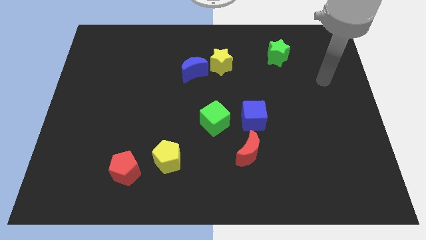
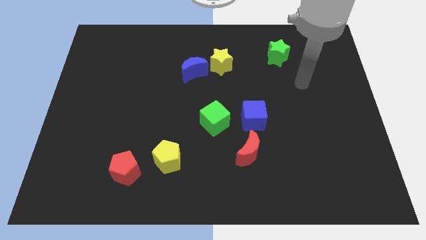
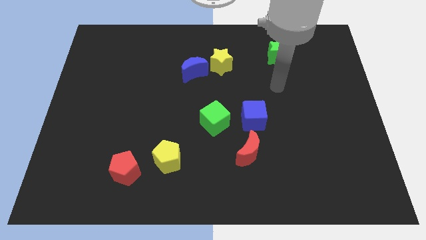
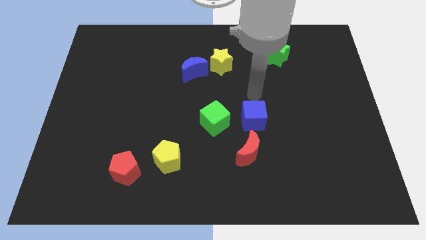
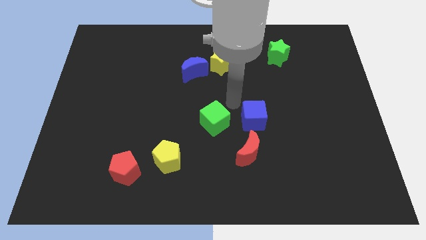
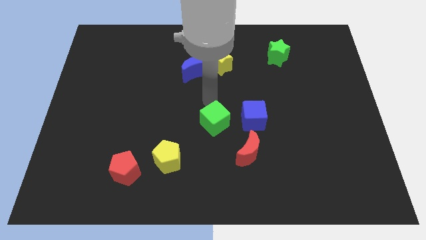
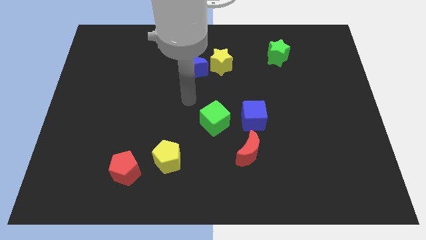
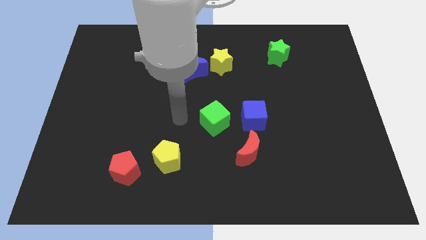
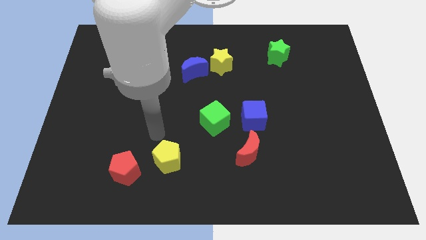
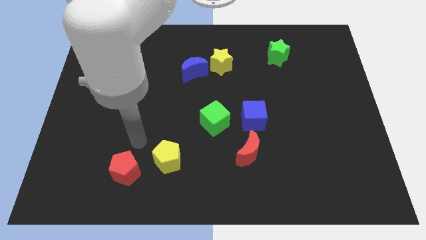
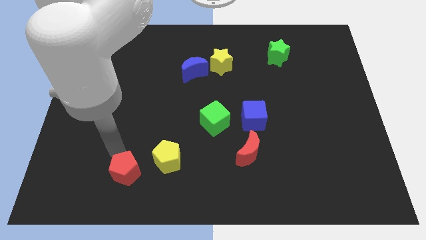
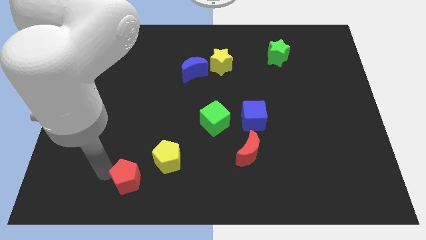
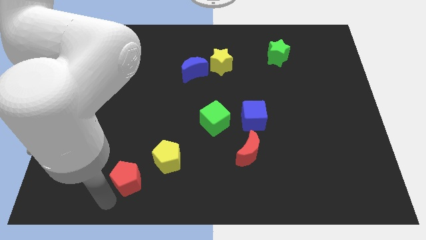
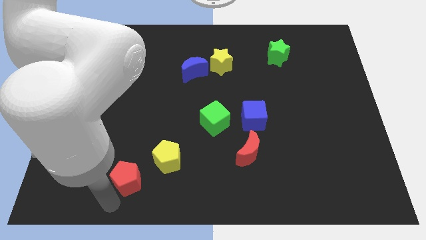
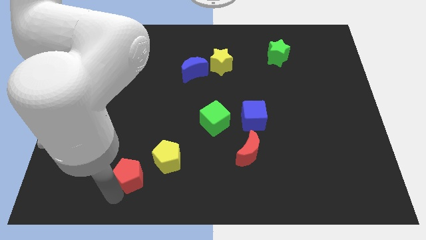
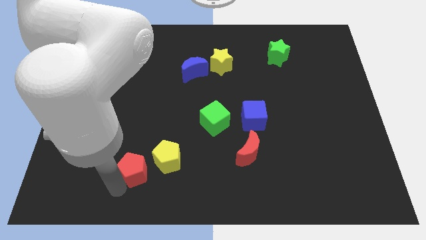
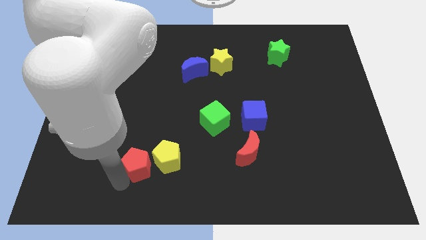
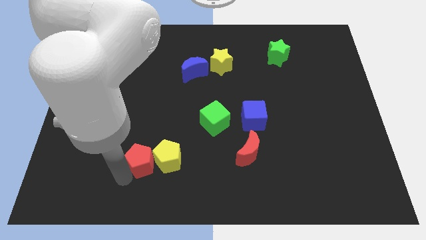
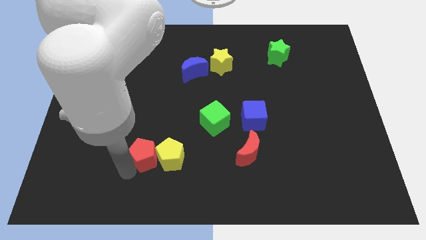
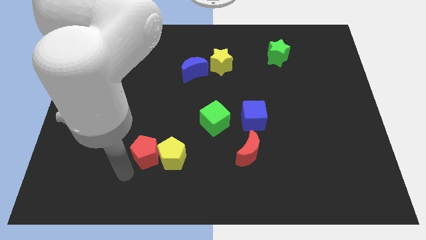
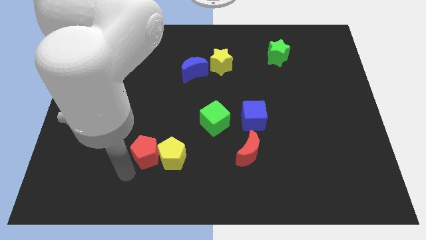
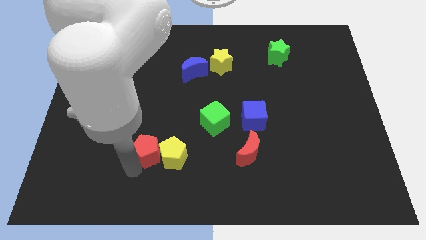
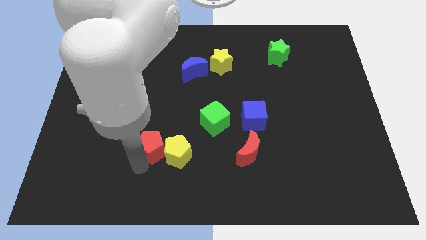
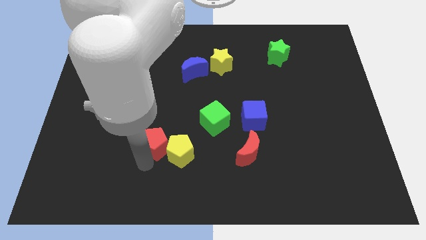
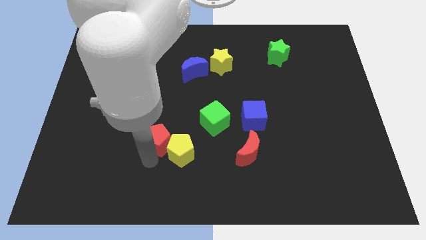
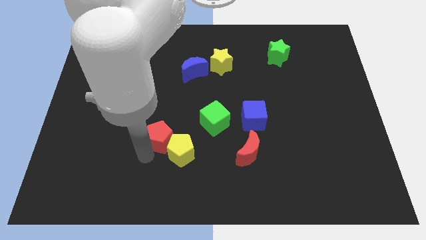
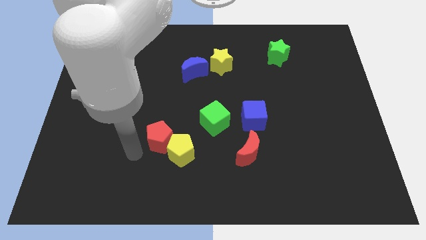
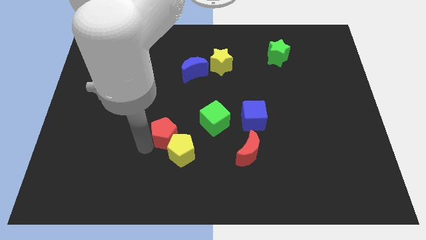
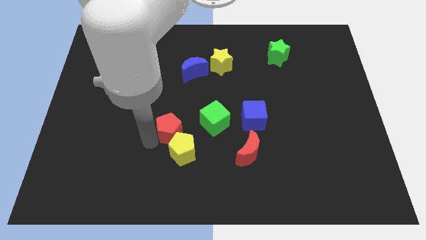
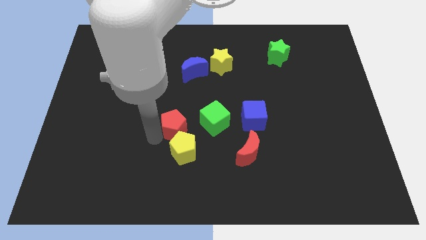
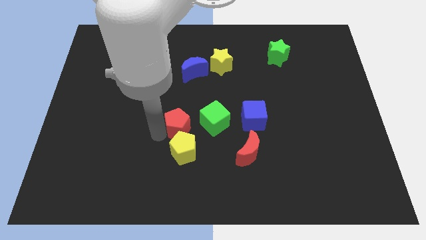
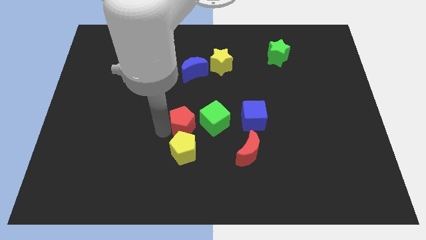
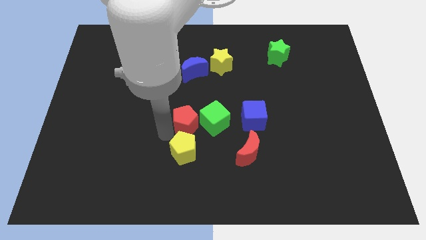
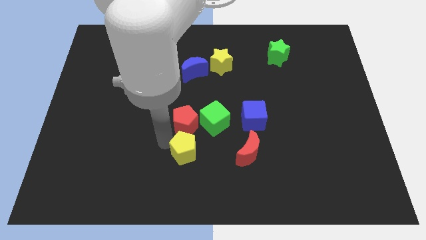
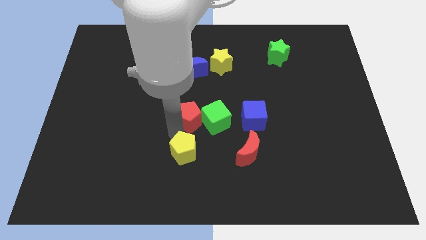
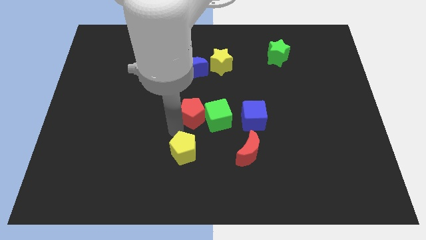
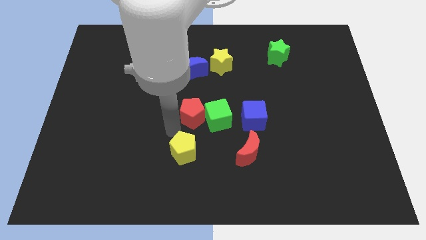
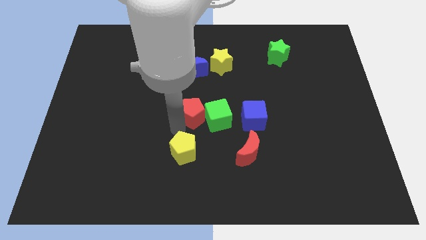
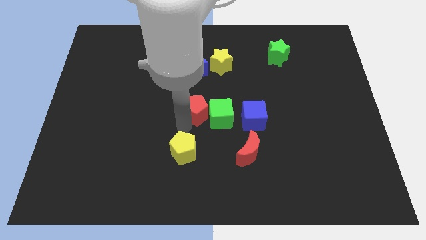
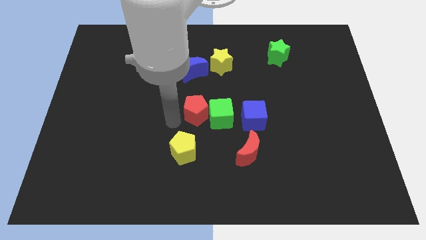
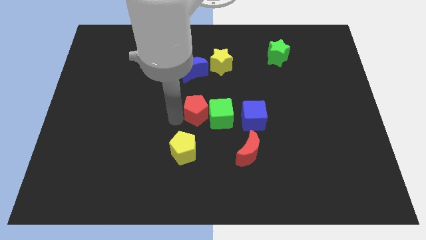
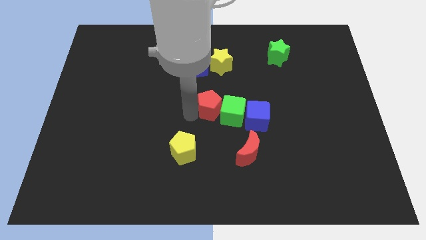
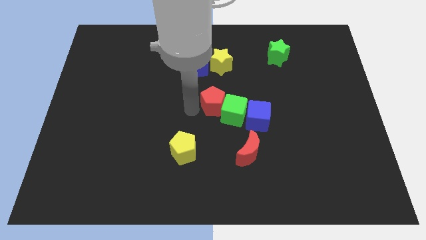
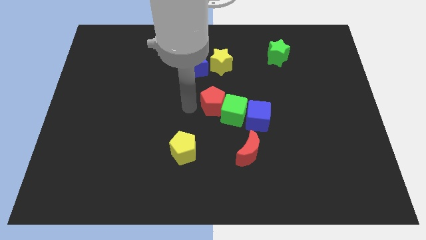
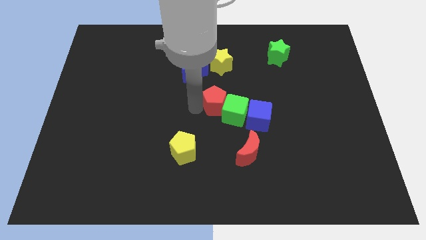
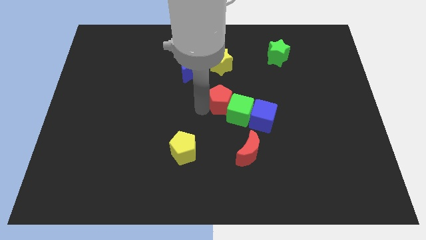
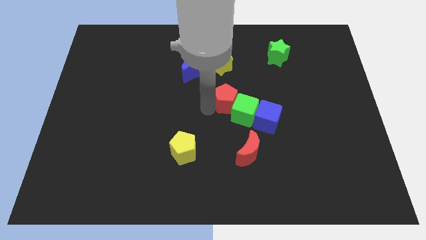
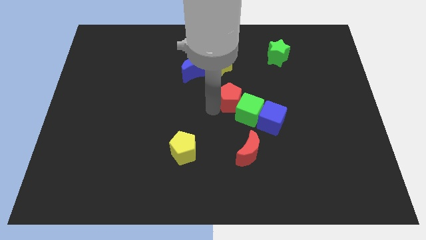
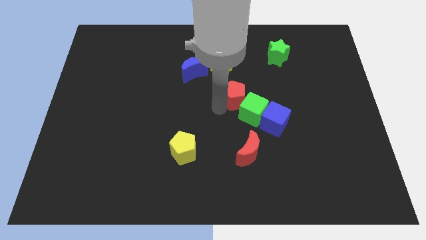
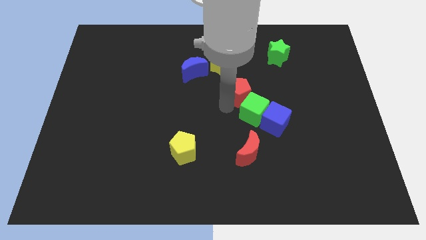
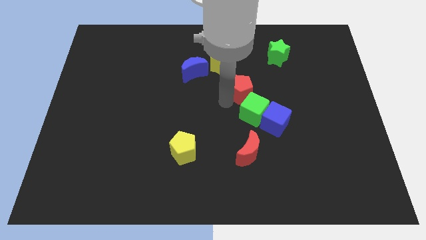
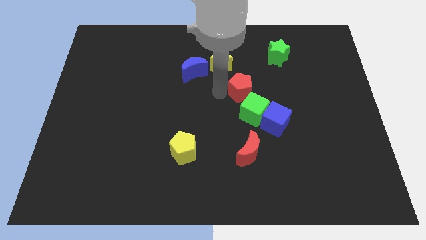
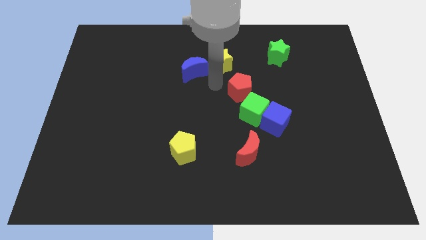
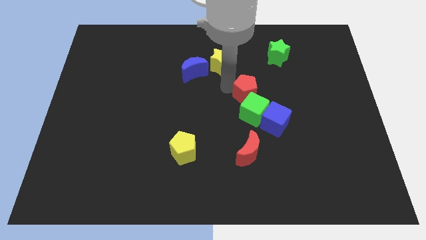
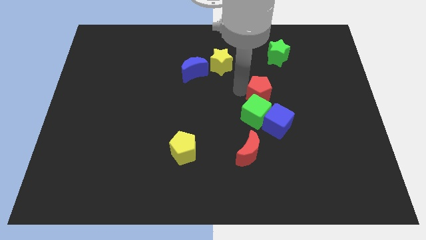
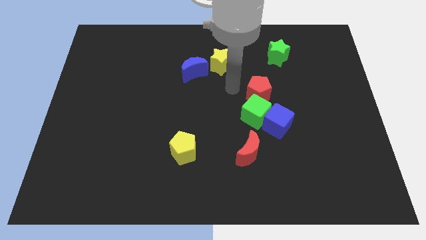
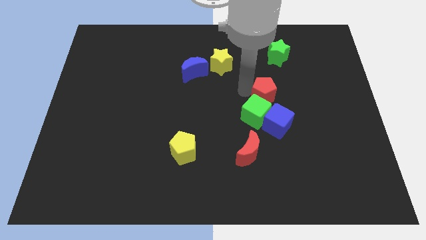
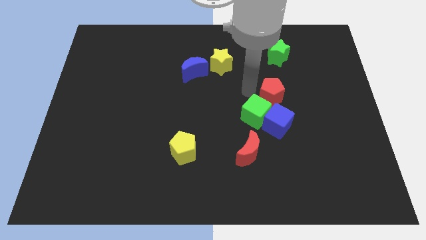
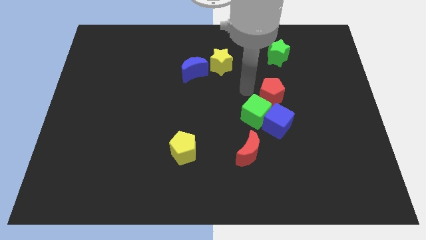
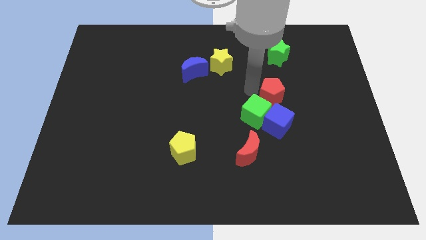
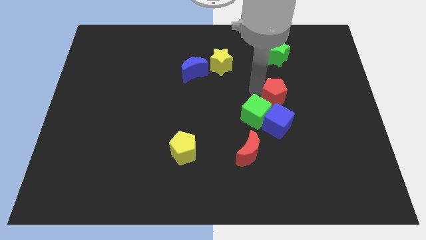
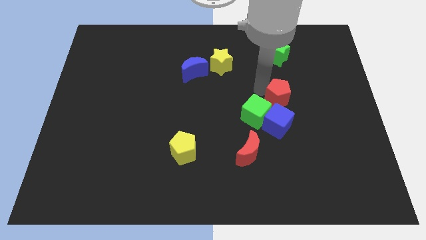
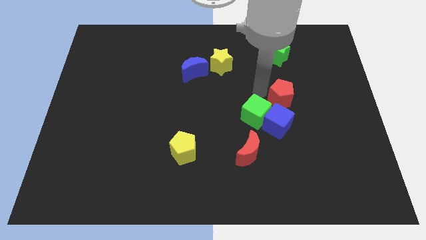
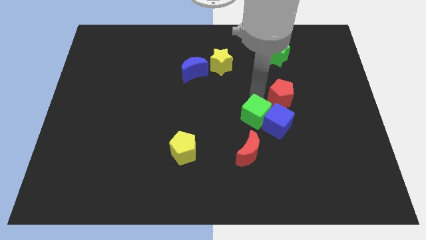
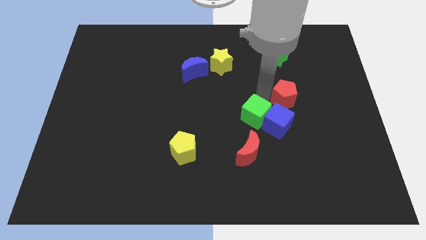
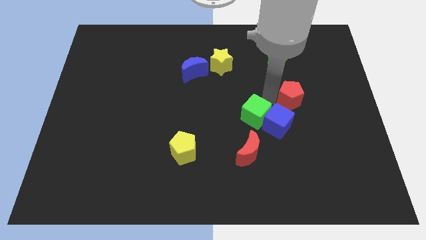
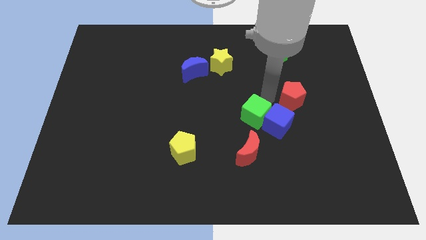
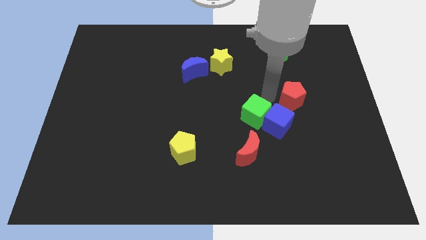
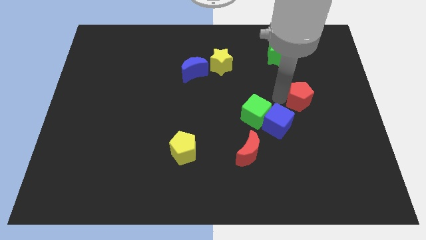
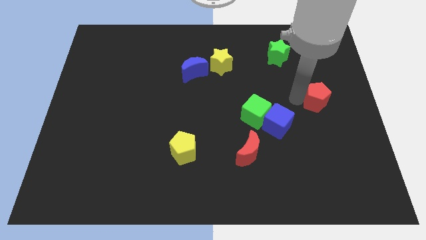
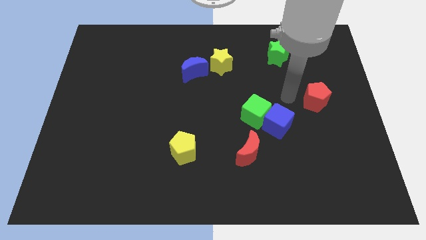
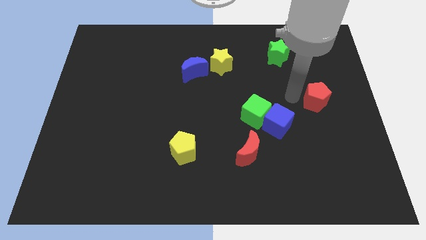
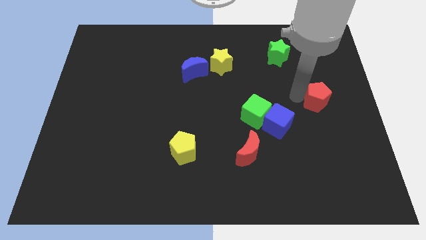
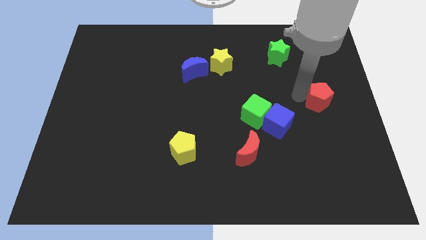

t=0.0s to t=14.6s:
push the red pentagon to the right side of the board
